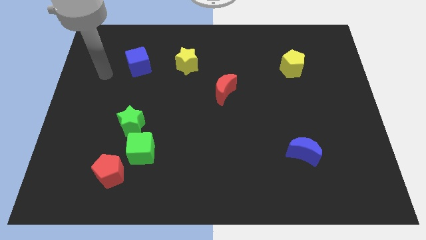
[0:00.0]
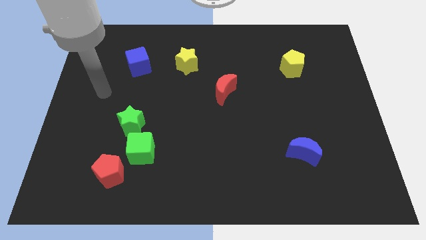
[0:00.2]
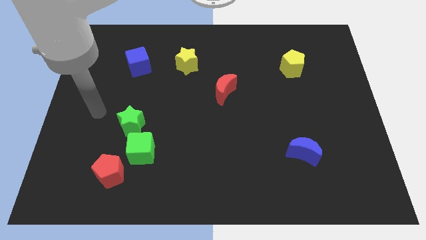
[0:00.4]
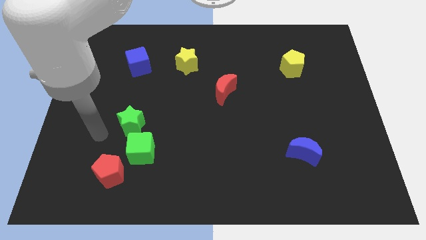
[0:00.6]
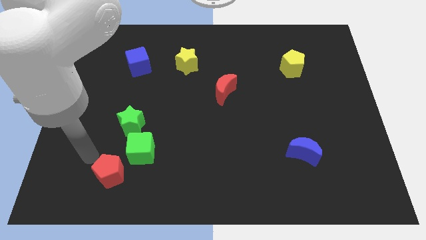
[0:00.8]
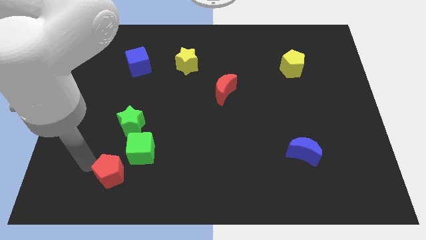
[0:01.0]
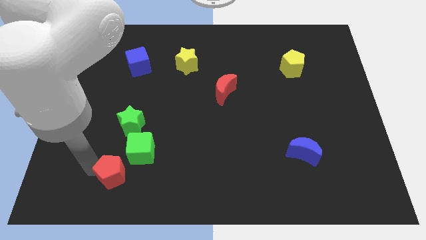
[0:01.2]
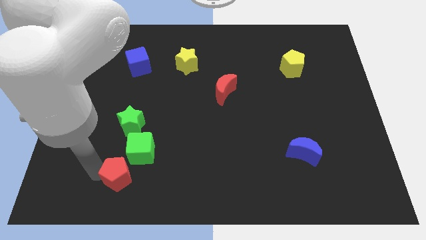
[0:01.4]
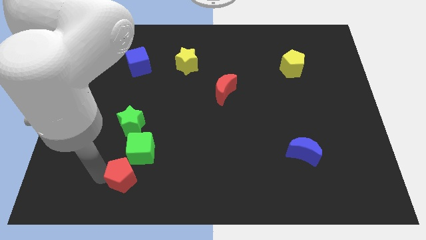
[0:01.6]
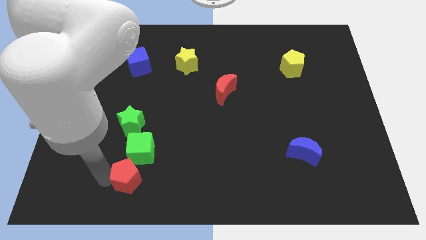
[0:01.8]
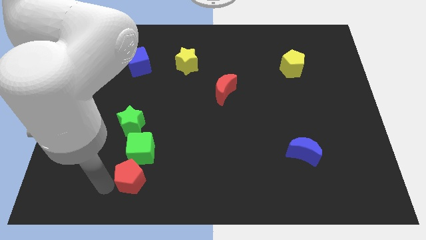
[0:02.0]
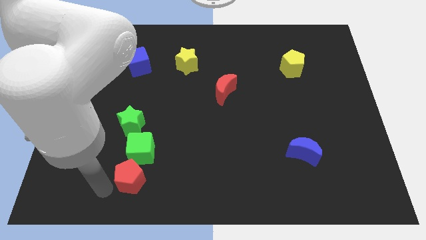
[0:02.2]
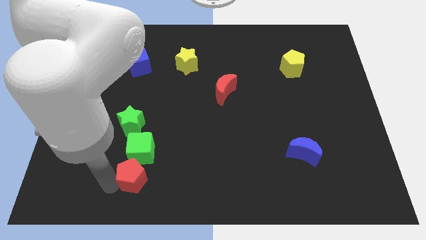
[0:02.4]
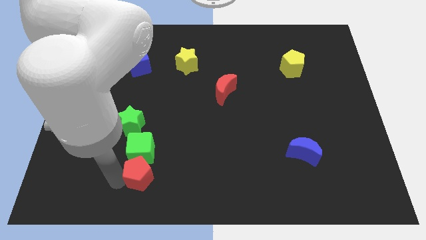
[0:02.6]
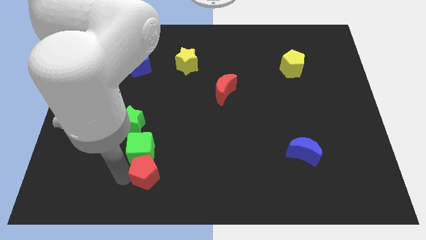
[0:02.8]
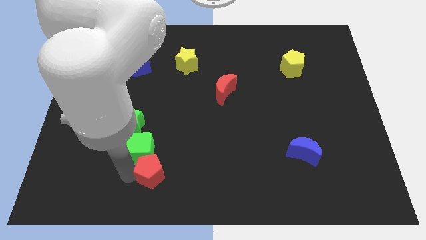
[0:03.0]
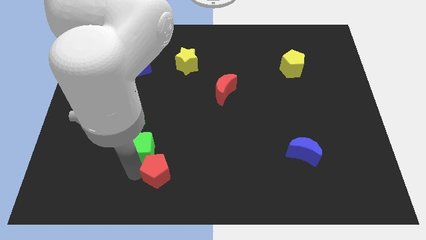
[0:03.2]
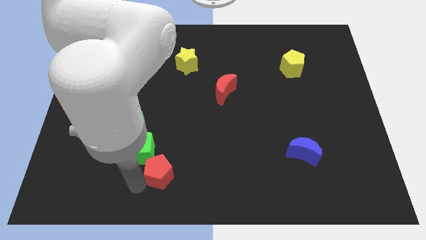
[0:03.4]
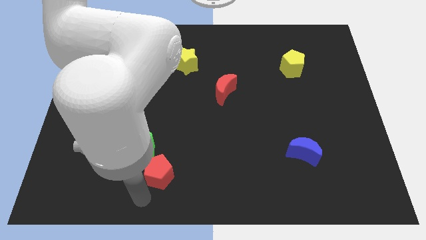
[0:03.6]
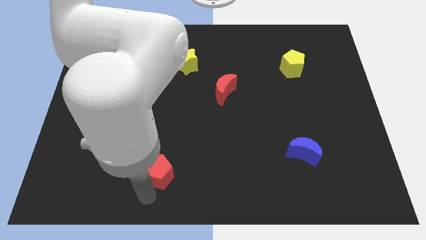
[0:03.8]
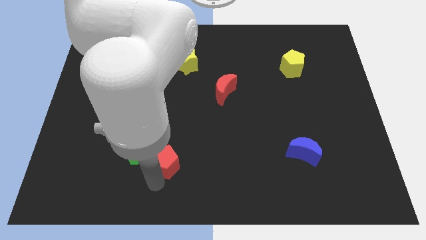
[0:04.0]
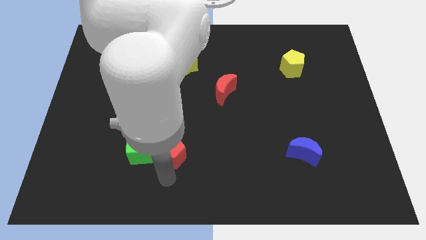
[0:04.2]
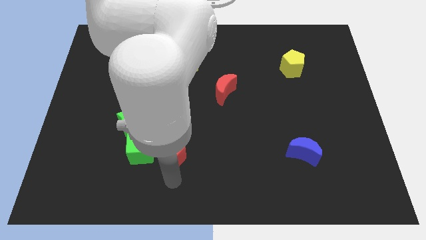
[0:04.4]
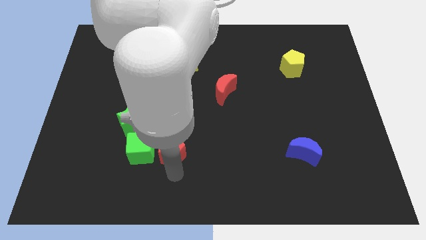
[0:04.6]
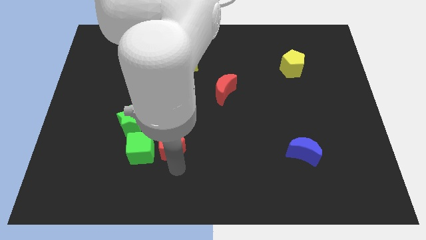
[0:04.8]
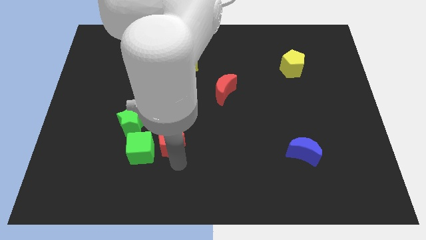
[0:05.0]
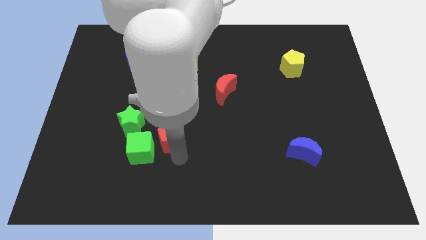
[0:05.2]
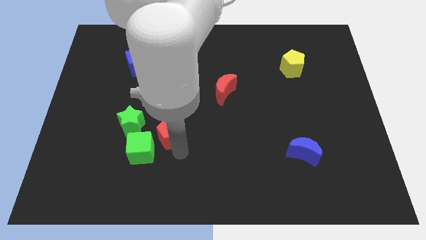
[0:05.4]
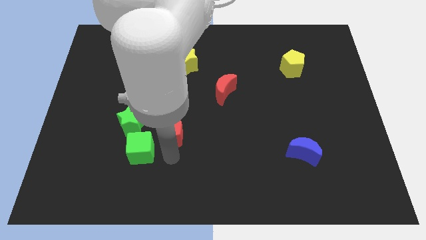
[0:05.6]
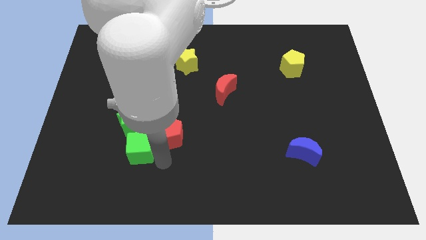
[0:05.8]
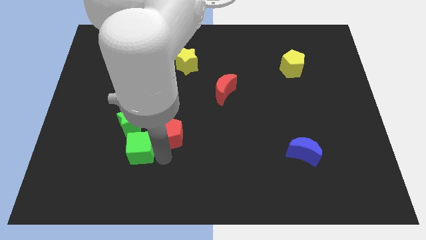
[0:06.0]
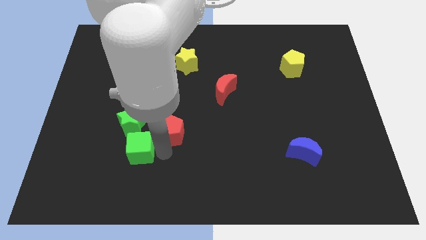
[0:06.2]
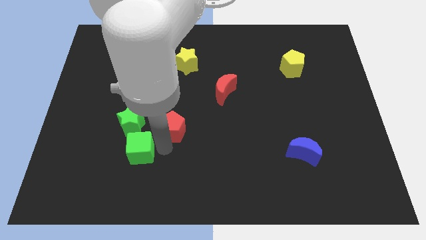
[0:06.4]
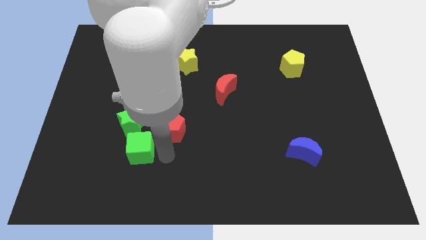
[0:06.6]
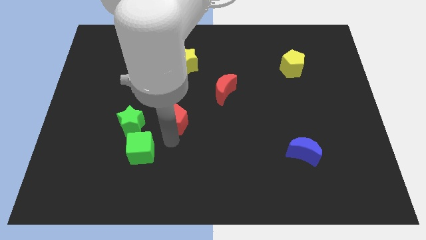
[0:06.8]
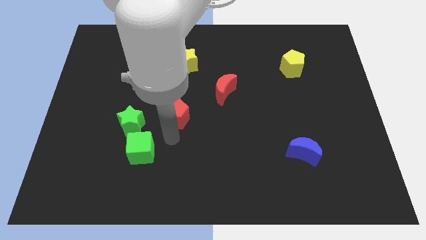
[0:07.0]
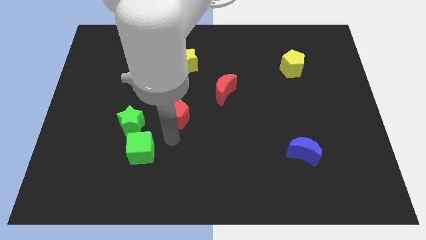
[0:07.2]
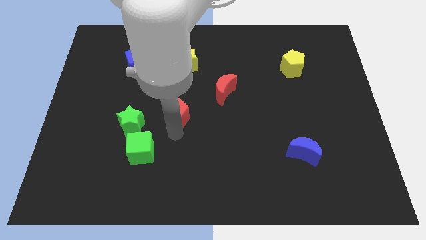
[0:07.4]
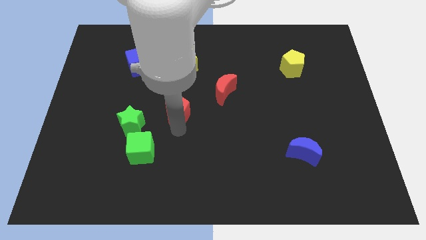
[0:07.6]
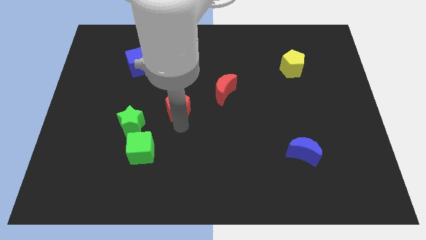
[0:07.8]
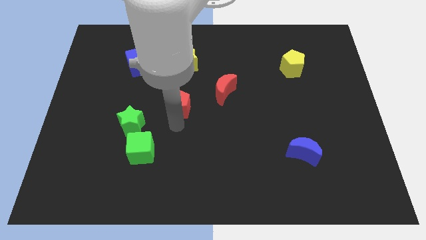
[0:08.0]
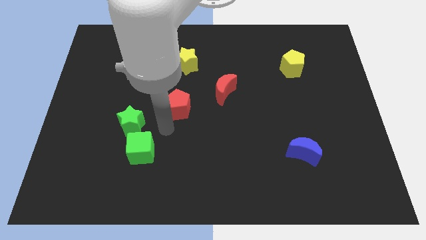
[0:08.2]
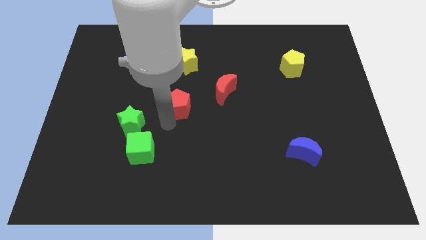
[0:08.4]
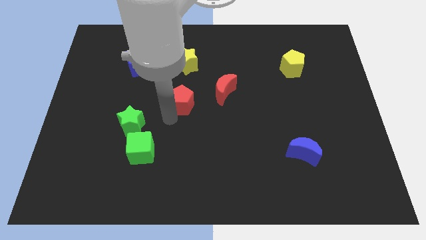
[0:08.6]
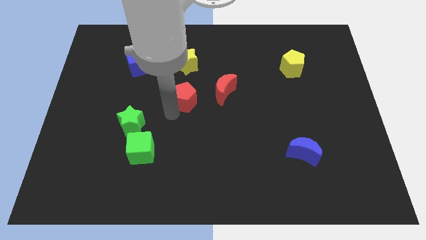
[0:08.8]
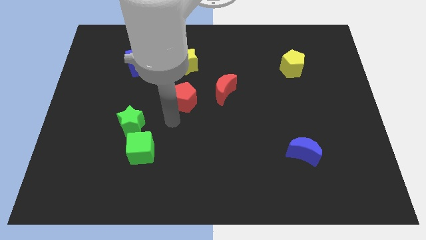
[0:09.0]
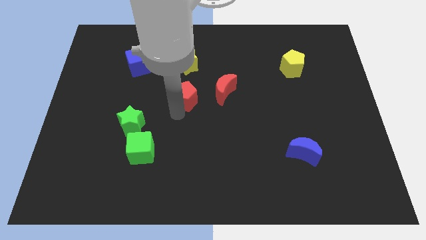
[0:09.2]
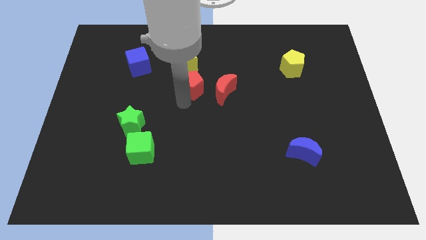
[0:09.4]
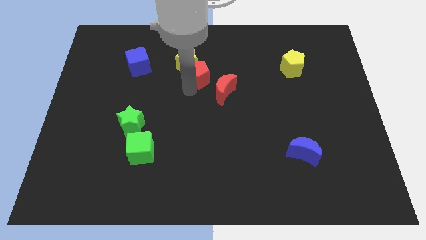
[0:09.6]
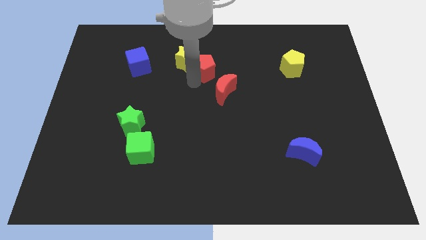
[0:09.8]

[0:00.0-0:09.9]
put the red pentagon above the red moon

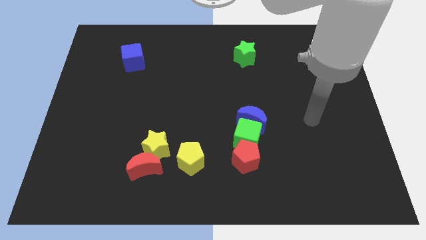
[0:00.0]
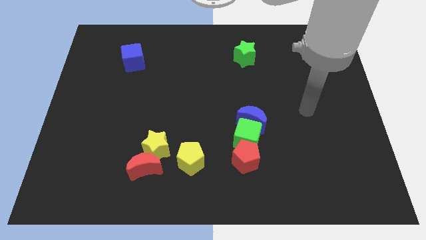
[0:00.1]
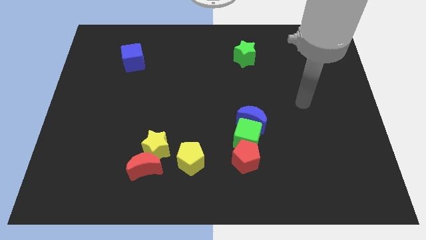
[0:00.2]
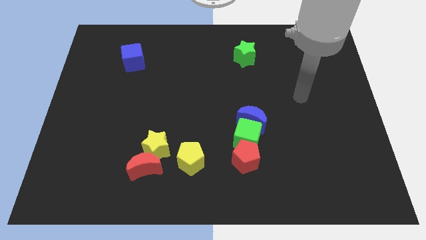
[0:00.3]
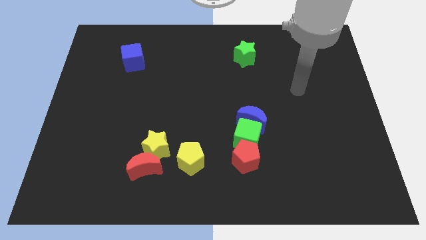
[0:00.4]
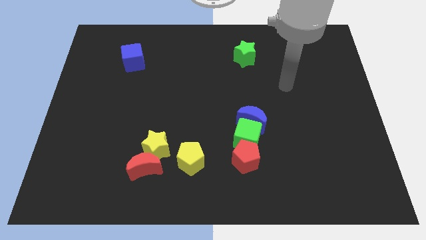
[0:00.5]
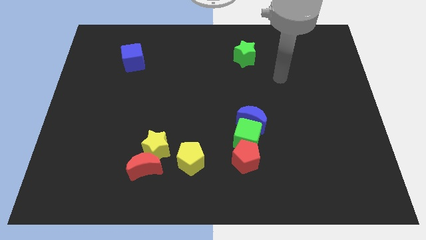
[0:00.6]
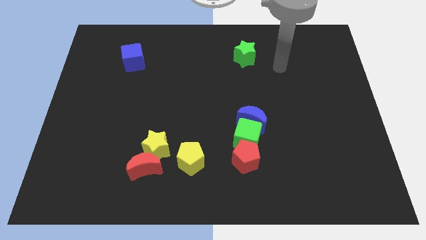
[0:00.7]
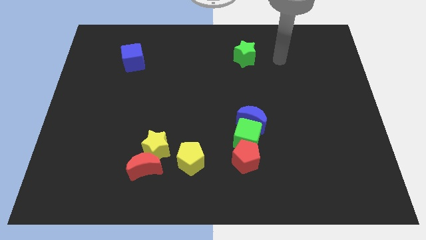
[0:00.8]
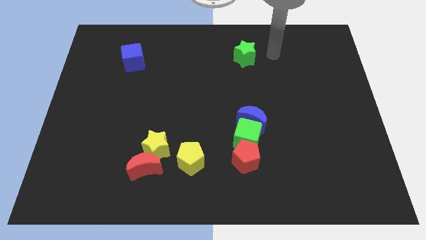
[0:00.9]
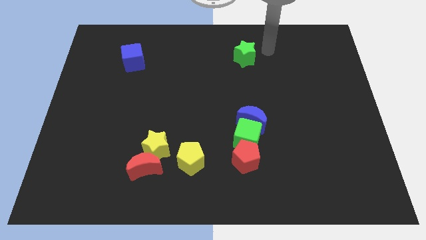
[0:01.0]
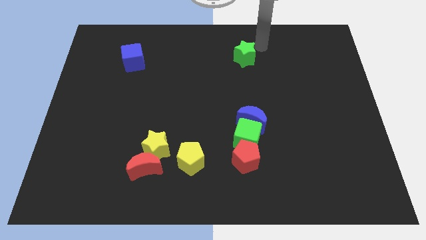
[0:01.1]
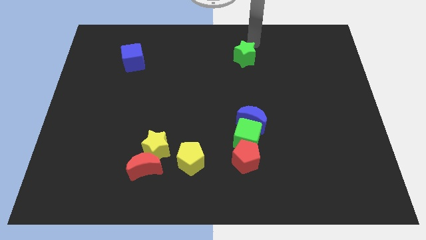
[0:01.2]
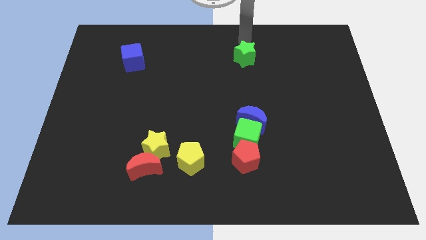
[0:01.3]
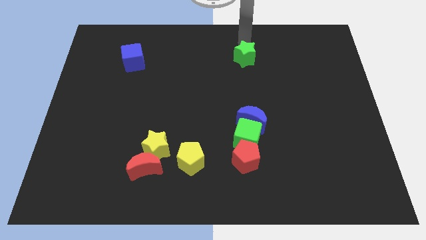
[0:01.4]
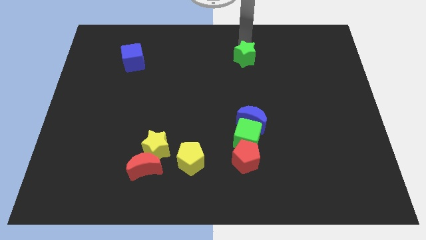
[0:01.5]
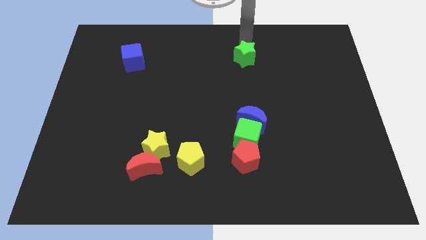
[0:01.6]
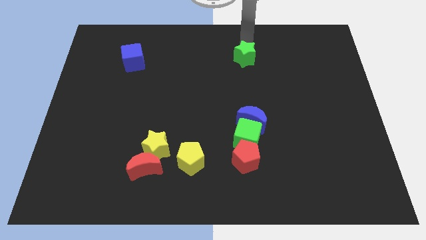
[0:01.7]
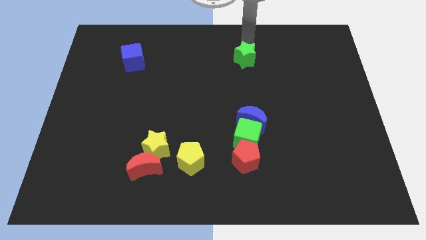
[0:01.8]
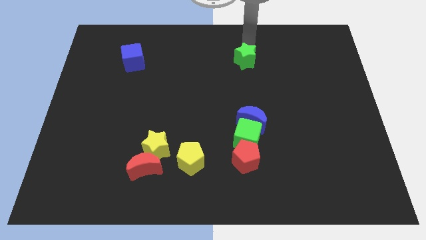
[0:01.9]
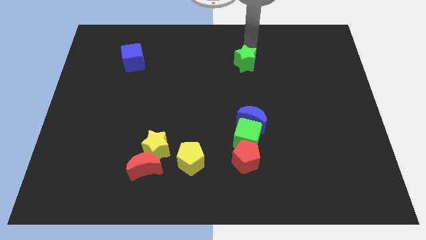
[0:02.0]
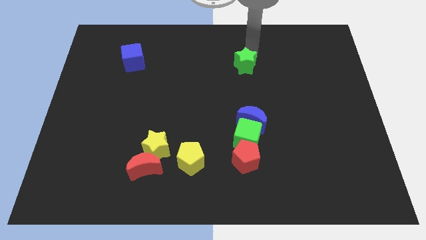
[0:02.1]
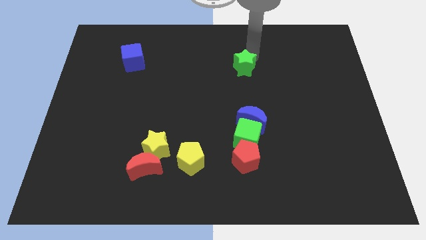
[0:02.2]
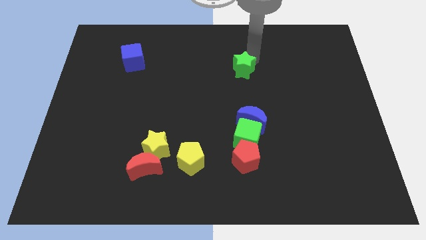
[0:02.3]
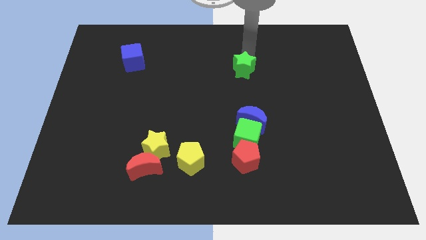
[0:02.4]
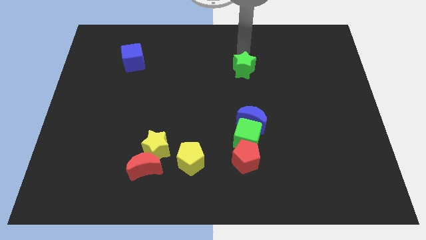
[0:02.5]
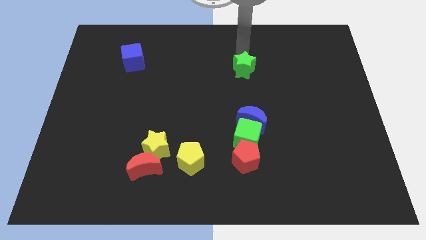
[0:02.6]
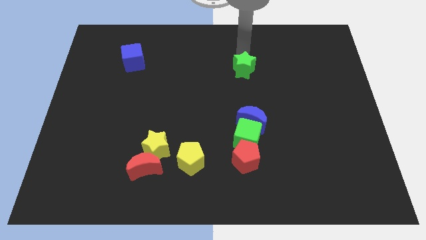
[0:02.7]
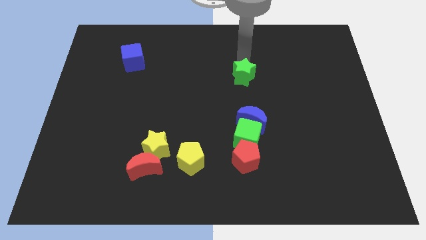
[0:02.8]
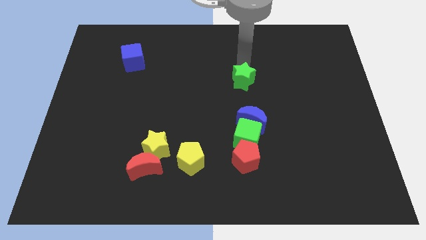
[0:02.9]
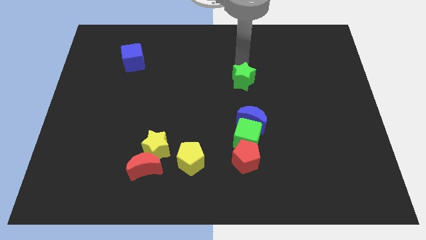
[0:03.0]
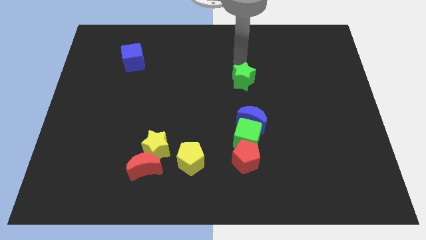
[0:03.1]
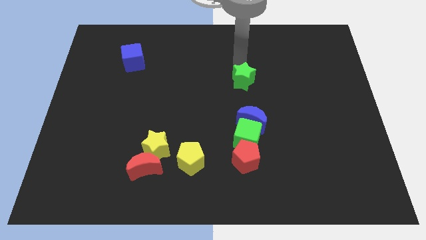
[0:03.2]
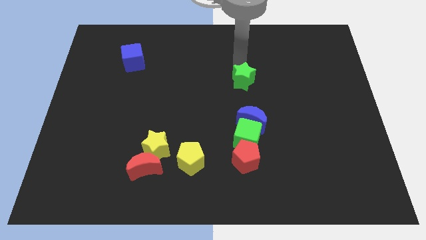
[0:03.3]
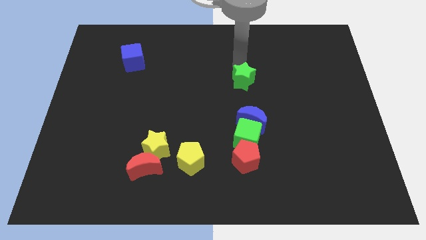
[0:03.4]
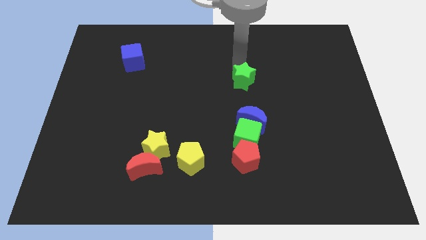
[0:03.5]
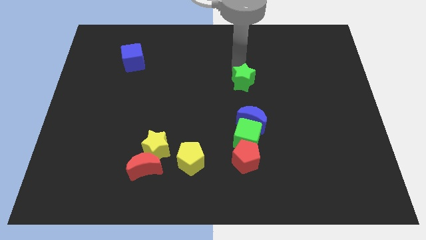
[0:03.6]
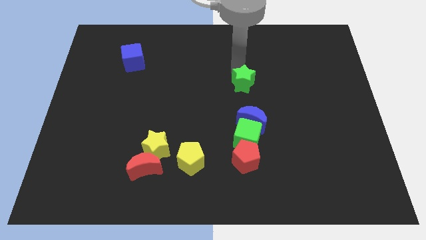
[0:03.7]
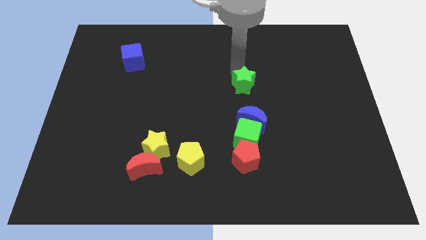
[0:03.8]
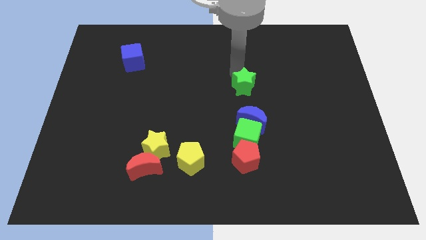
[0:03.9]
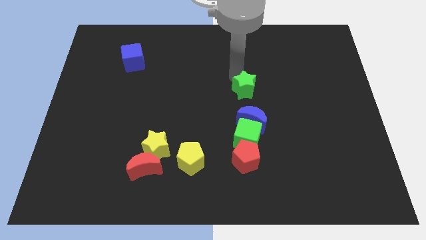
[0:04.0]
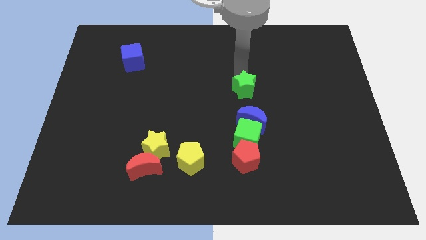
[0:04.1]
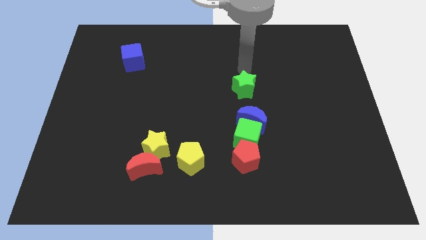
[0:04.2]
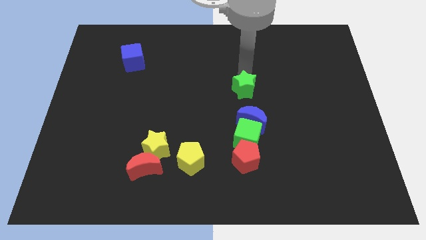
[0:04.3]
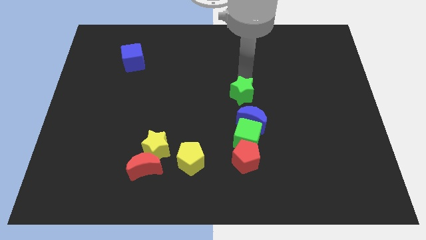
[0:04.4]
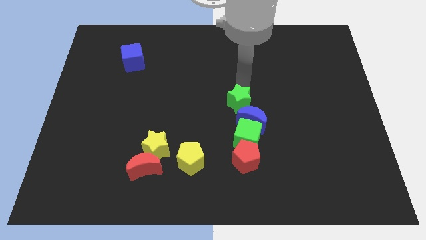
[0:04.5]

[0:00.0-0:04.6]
move the green star to the top side of the red pentagon
